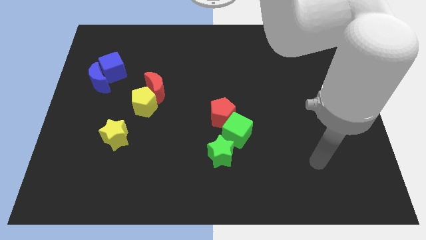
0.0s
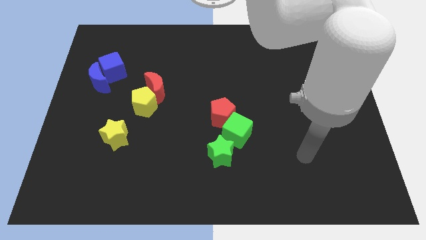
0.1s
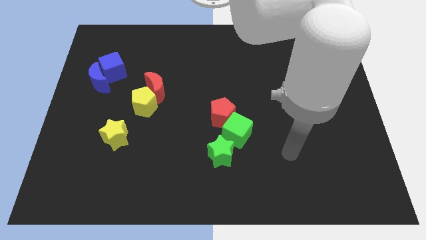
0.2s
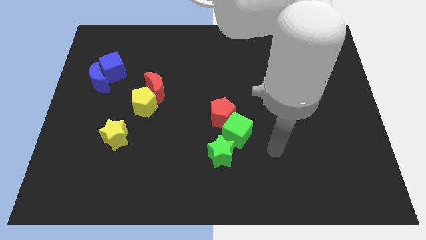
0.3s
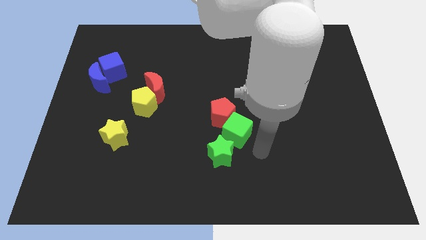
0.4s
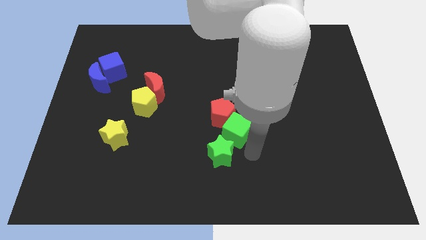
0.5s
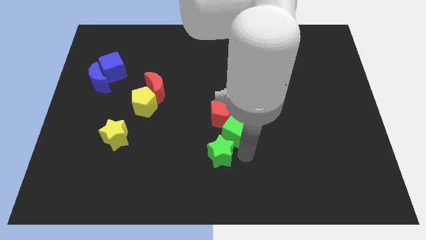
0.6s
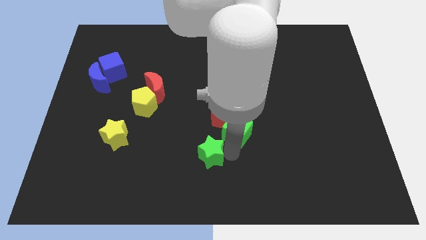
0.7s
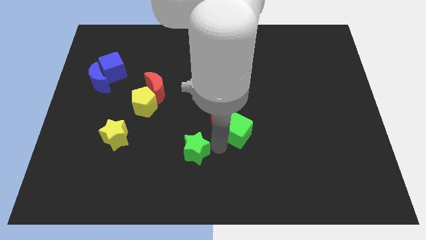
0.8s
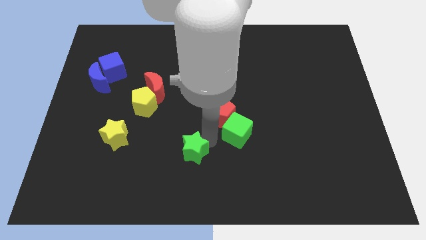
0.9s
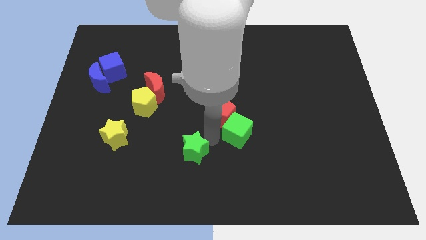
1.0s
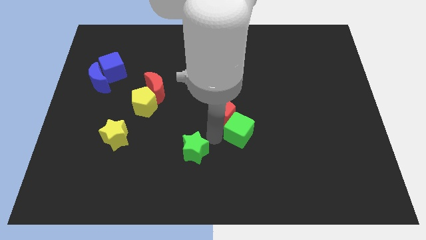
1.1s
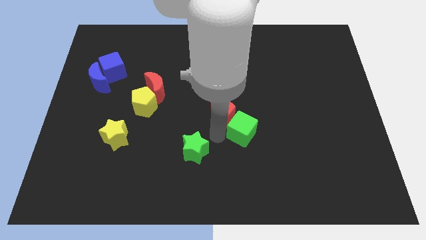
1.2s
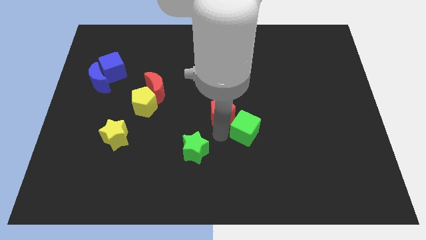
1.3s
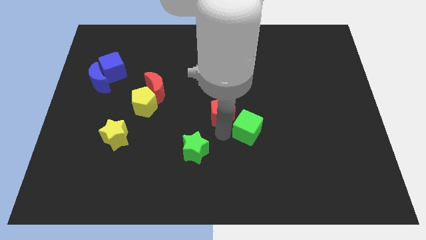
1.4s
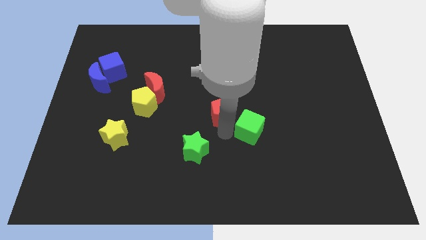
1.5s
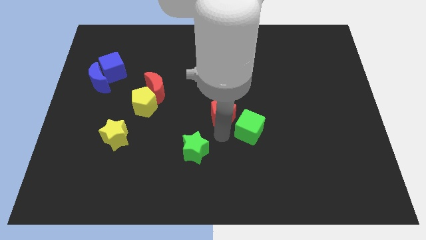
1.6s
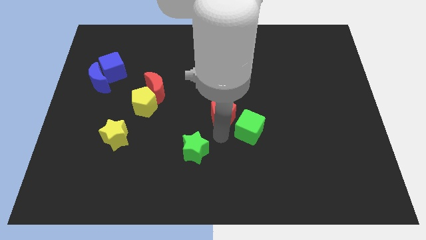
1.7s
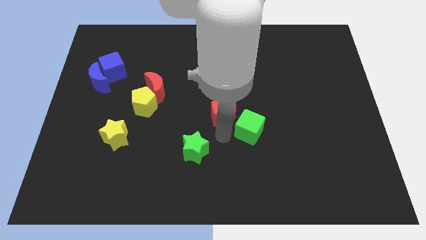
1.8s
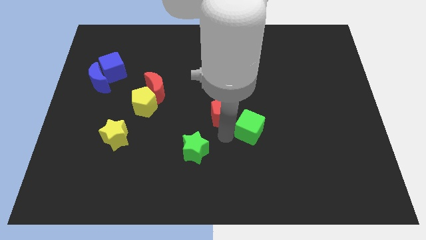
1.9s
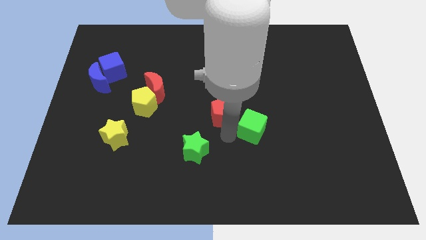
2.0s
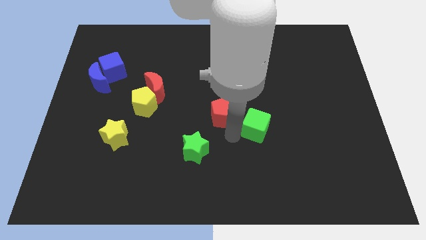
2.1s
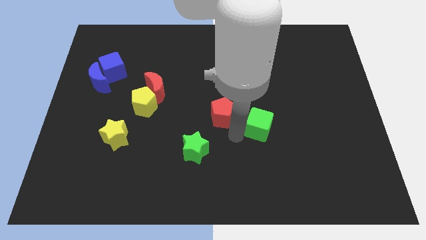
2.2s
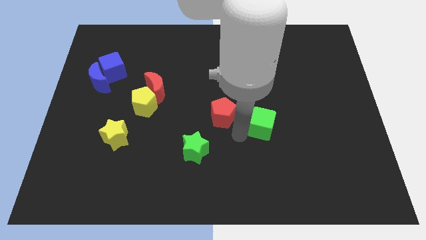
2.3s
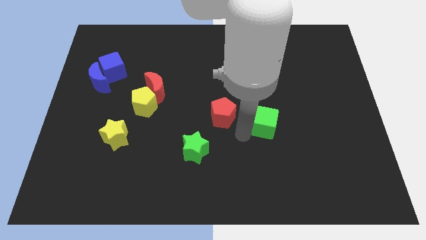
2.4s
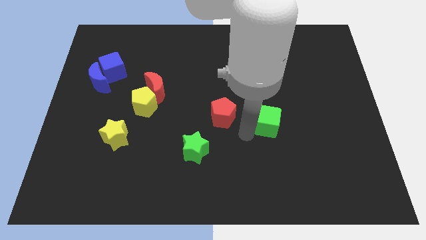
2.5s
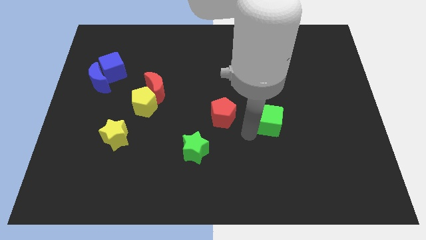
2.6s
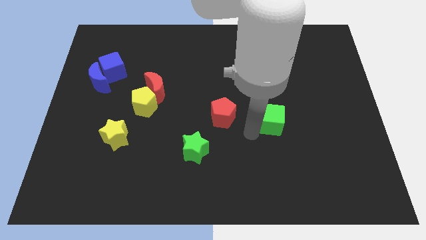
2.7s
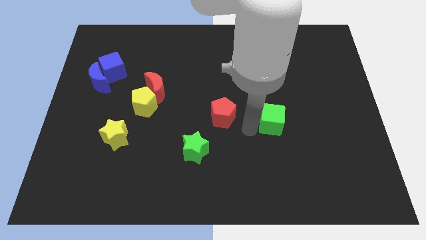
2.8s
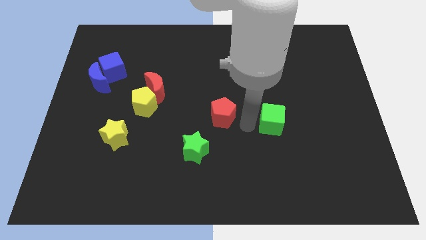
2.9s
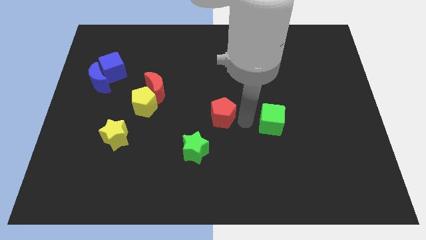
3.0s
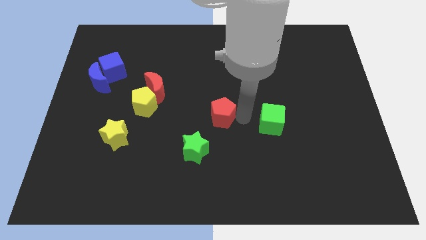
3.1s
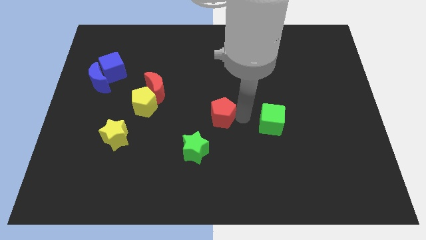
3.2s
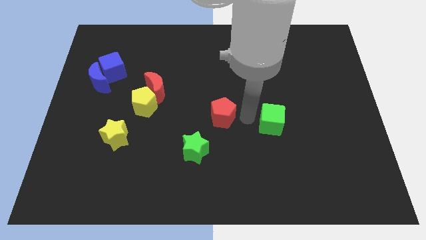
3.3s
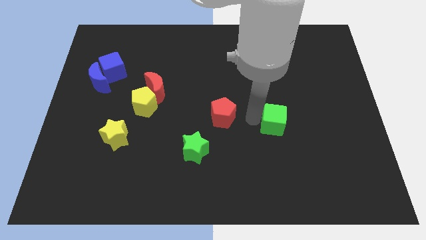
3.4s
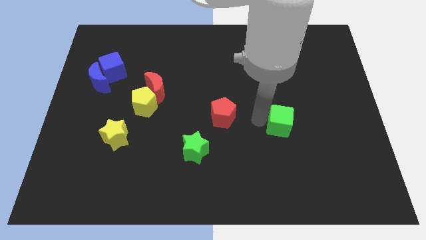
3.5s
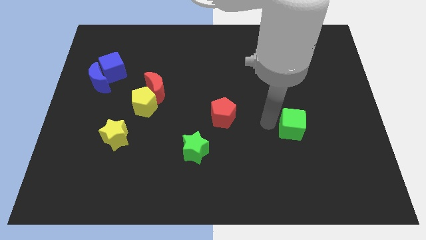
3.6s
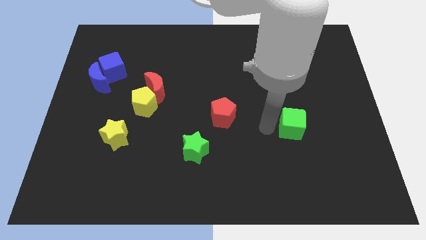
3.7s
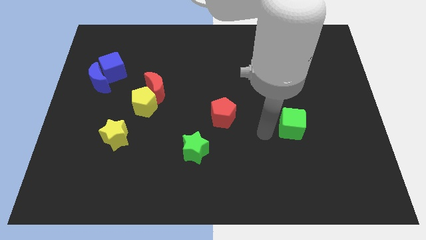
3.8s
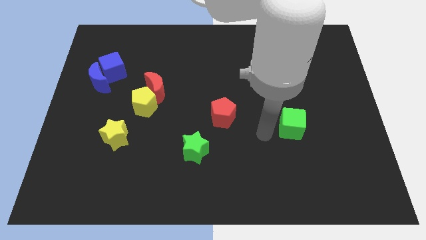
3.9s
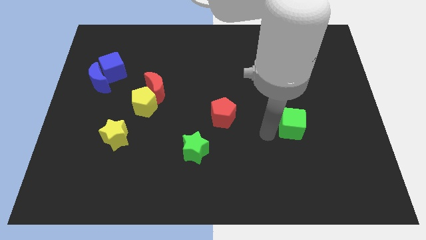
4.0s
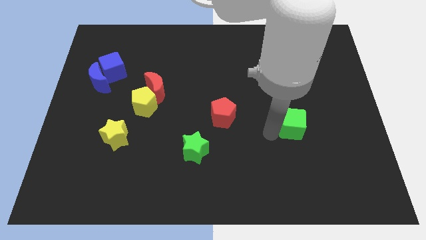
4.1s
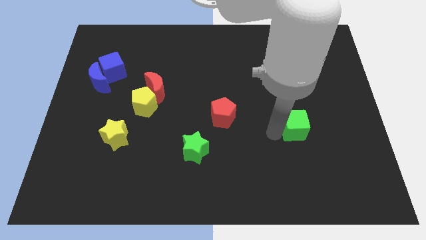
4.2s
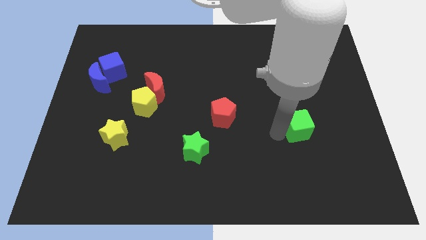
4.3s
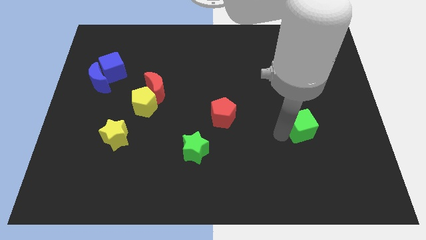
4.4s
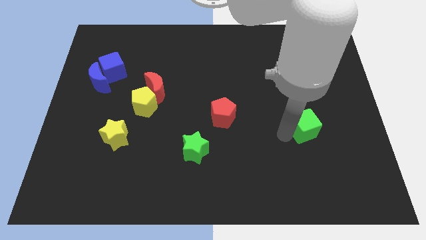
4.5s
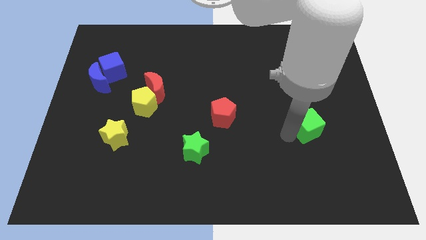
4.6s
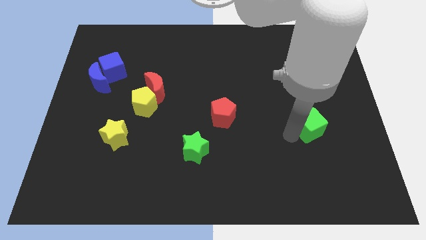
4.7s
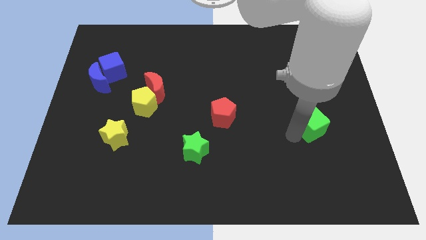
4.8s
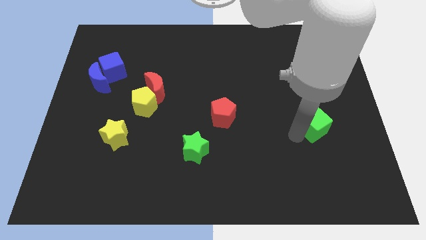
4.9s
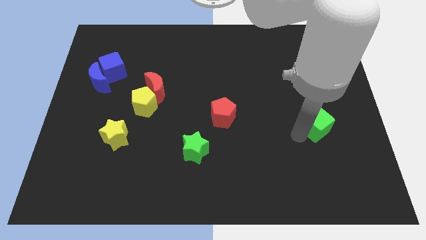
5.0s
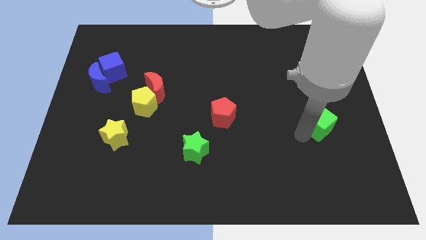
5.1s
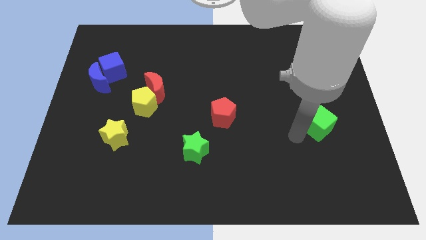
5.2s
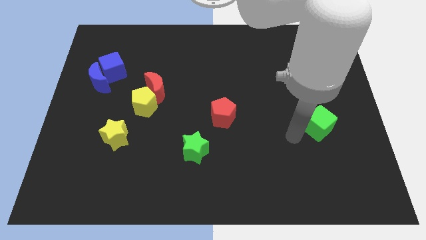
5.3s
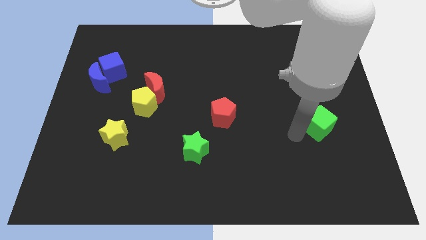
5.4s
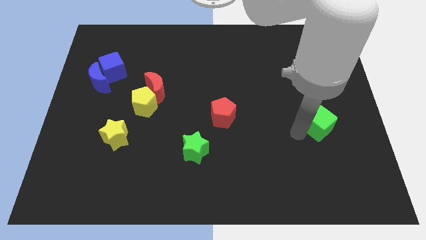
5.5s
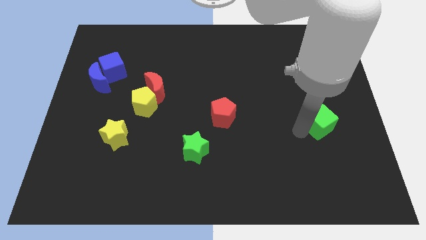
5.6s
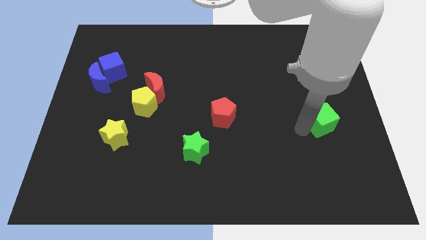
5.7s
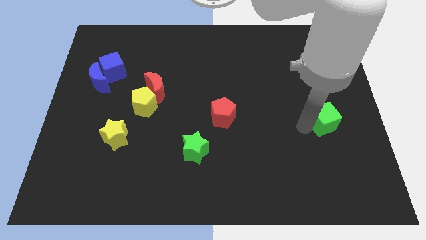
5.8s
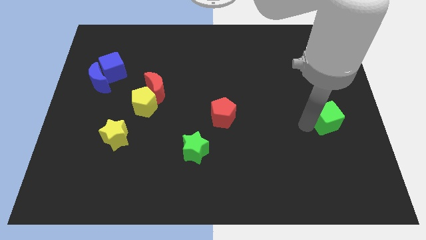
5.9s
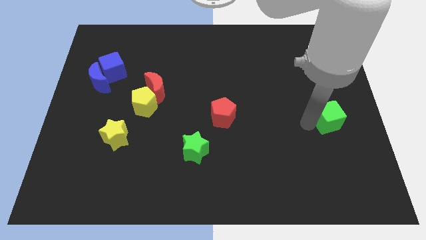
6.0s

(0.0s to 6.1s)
put the green cube to the center right

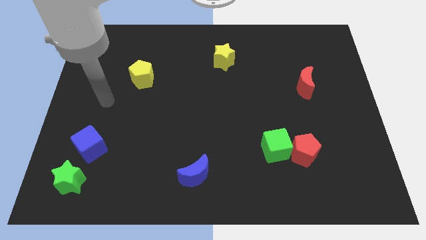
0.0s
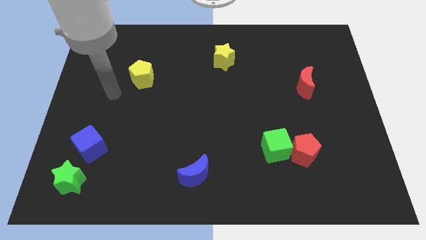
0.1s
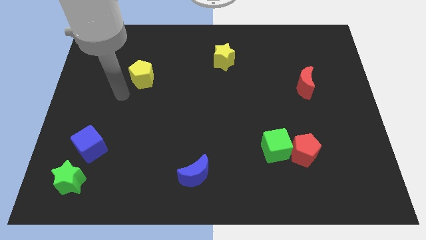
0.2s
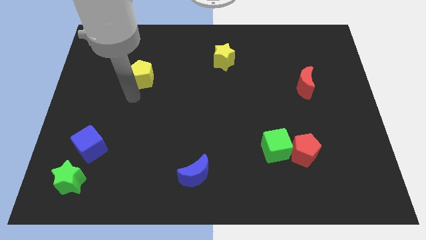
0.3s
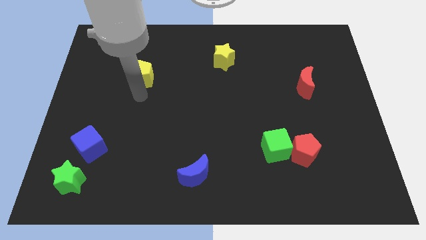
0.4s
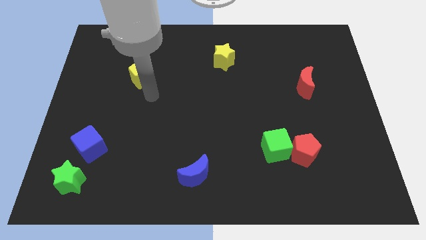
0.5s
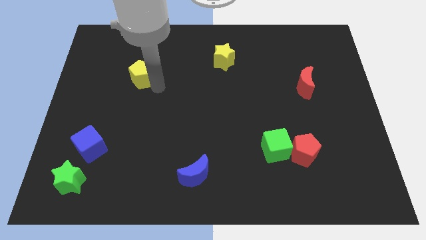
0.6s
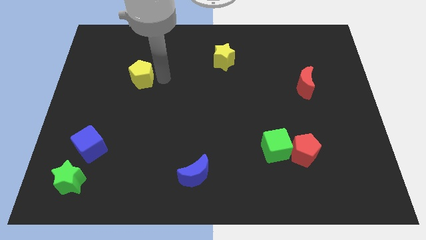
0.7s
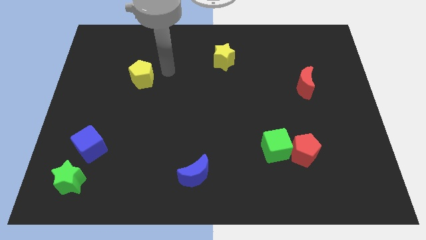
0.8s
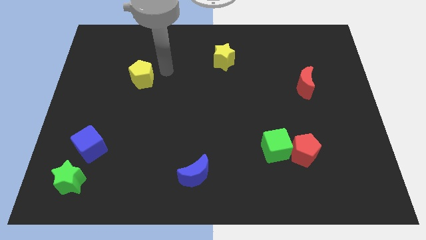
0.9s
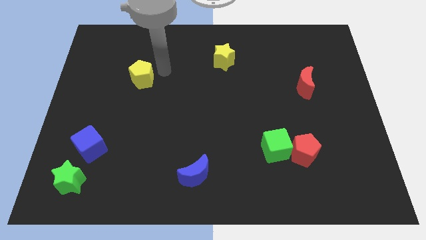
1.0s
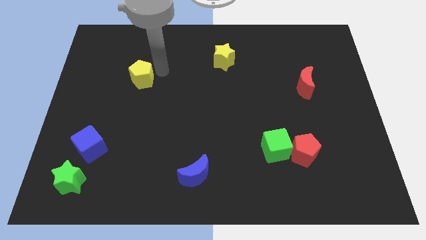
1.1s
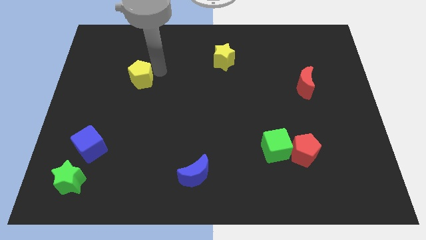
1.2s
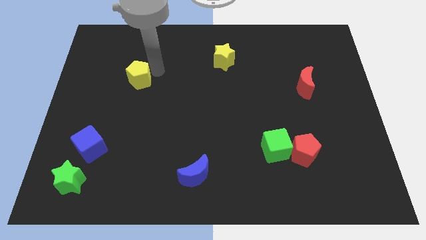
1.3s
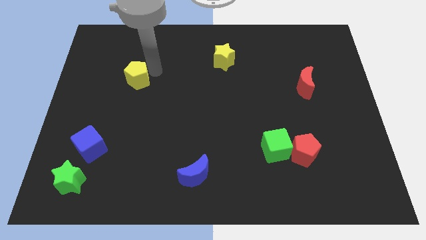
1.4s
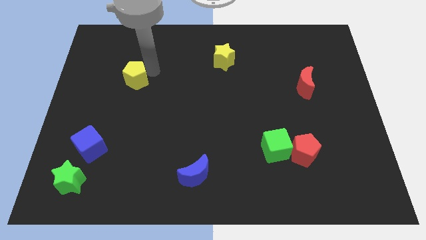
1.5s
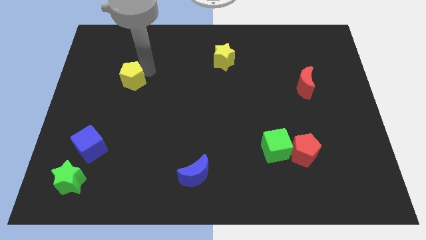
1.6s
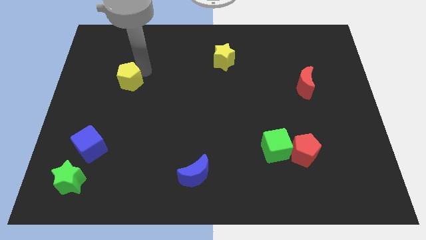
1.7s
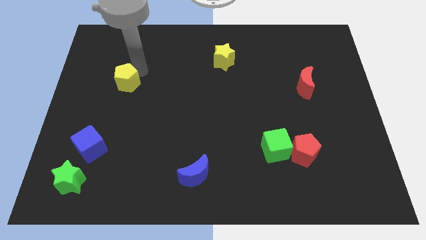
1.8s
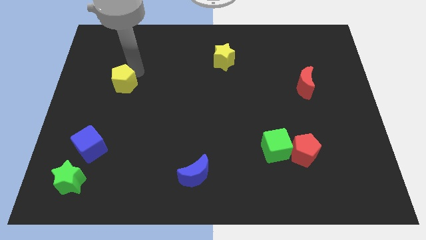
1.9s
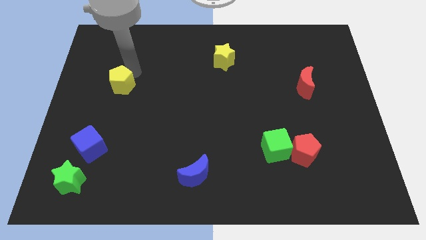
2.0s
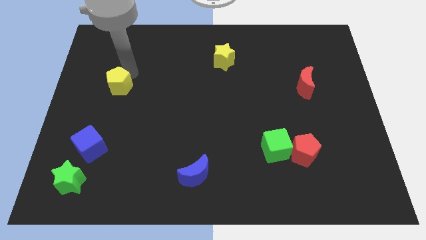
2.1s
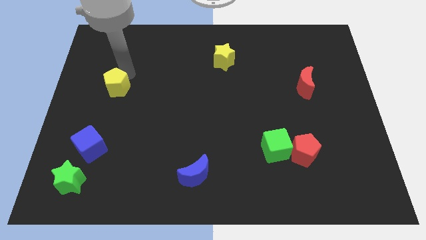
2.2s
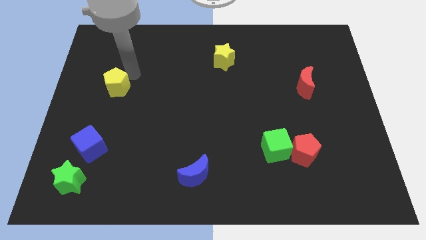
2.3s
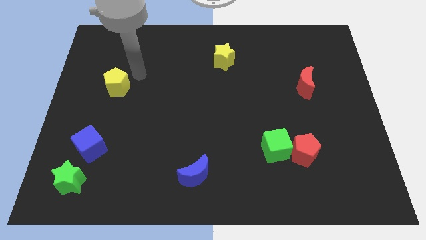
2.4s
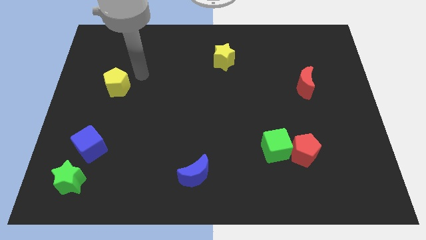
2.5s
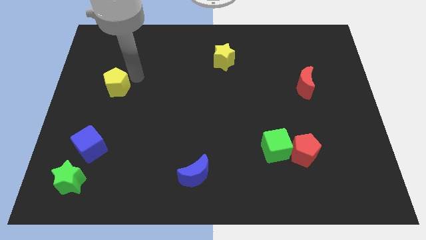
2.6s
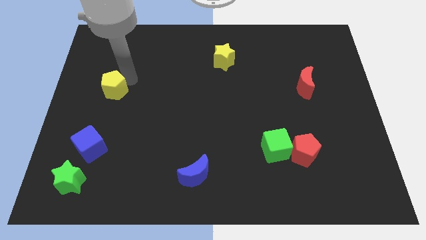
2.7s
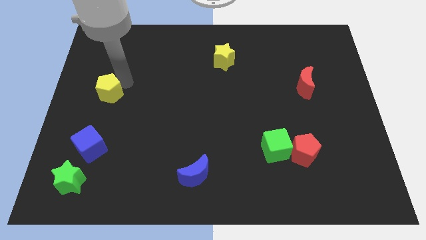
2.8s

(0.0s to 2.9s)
slide the yellow pentagon to the left side of the board
